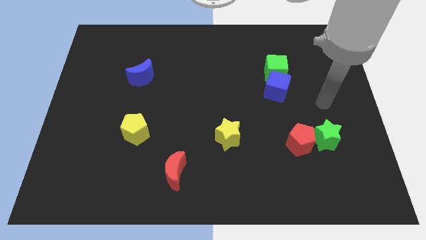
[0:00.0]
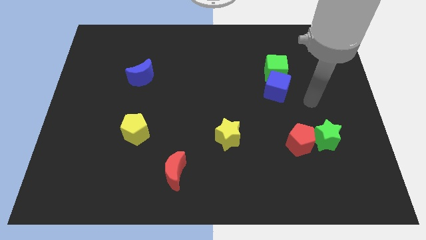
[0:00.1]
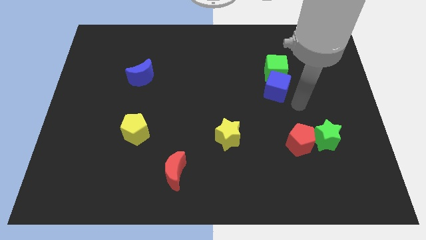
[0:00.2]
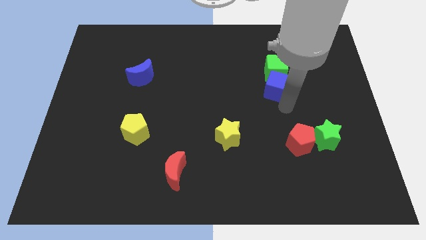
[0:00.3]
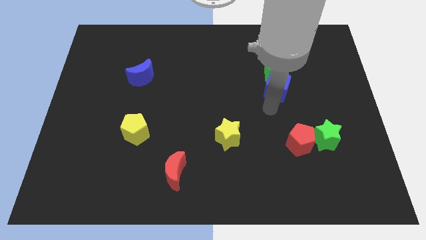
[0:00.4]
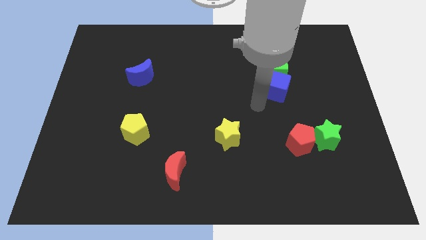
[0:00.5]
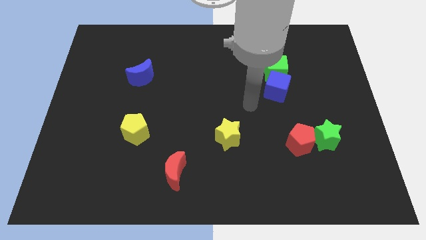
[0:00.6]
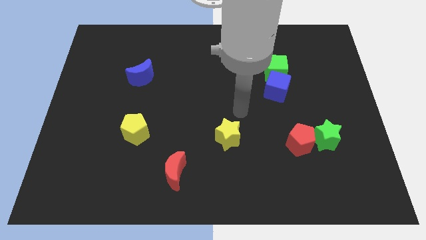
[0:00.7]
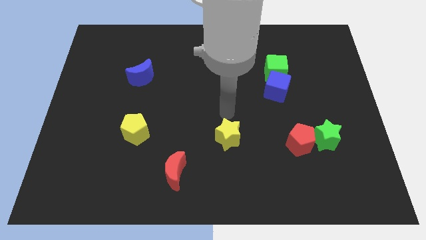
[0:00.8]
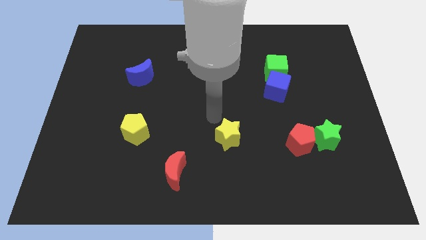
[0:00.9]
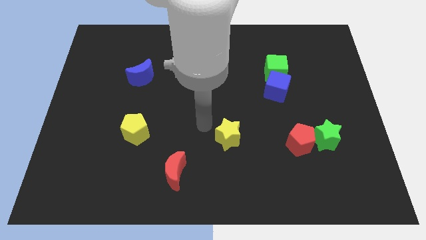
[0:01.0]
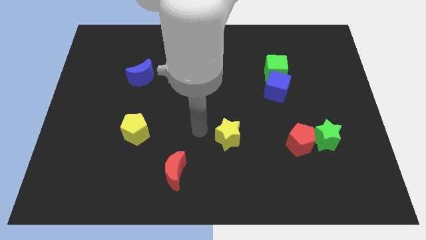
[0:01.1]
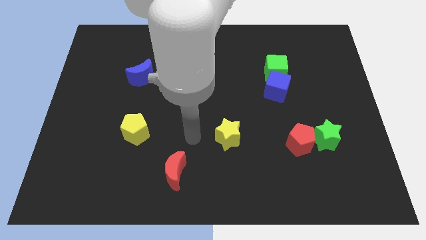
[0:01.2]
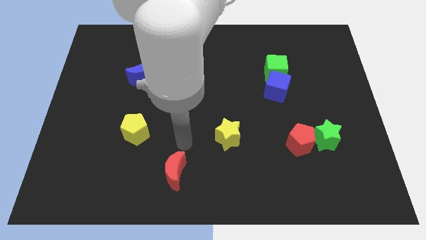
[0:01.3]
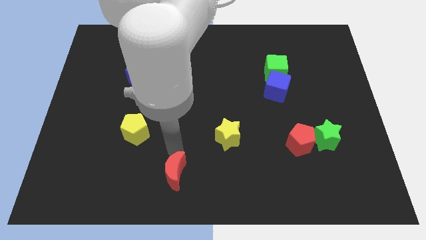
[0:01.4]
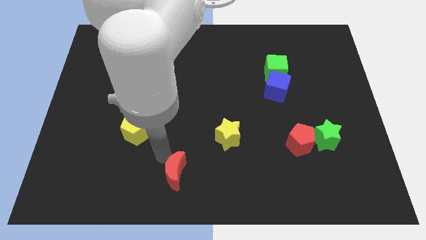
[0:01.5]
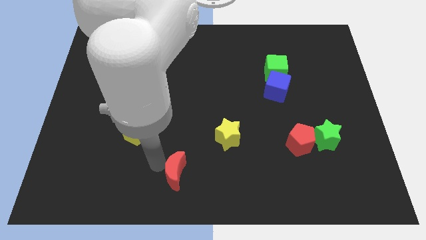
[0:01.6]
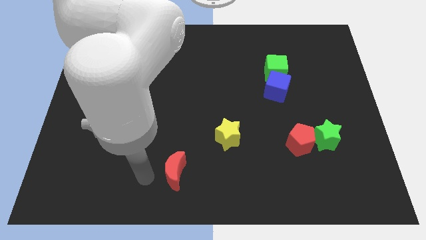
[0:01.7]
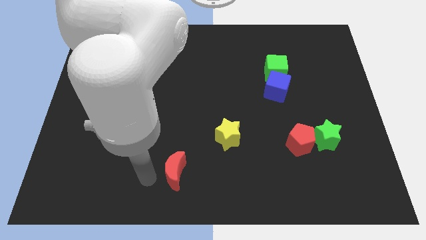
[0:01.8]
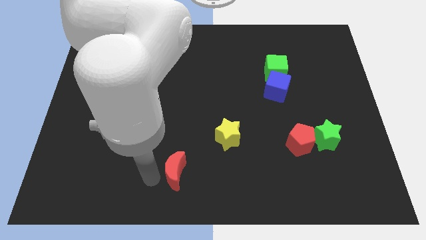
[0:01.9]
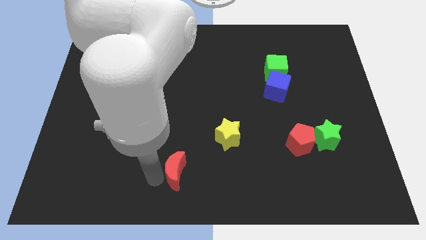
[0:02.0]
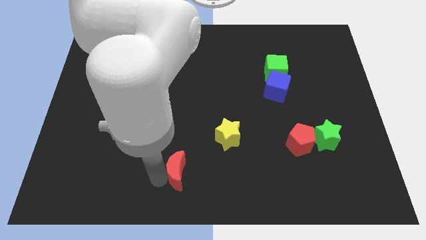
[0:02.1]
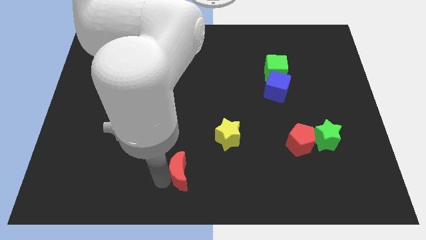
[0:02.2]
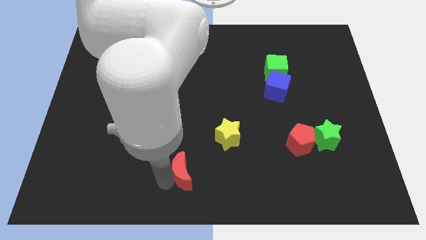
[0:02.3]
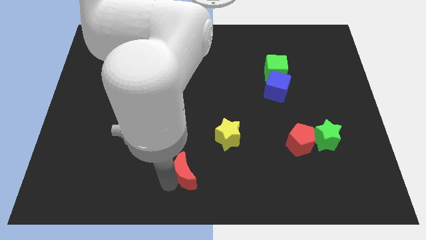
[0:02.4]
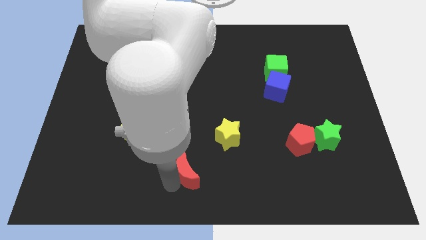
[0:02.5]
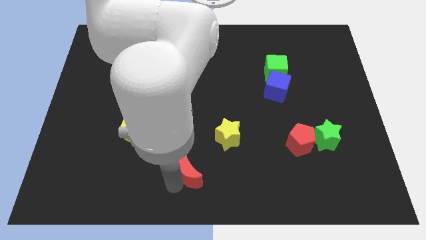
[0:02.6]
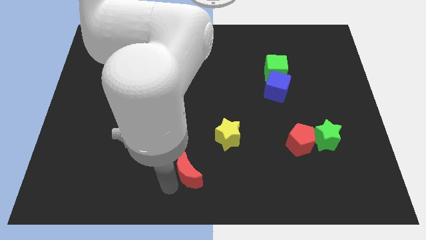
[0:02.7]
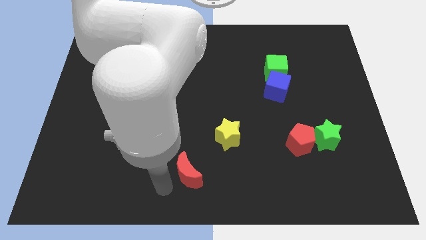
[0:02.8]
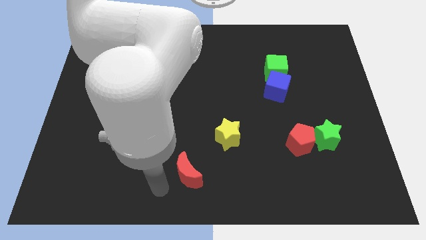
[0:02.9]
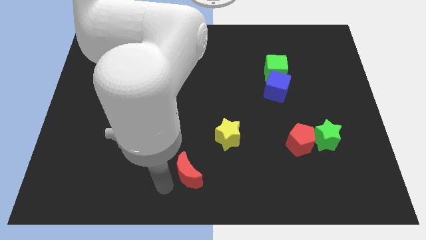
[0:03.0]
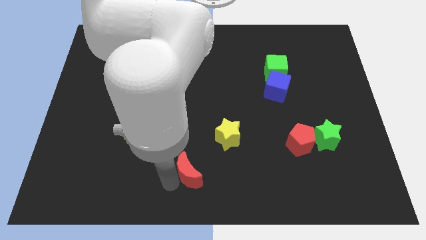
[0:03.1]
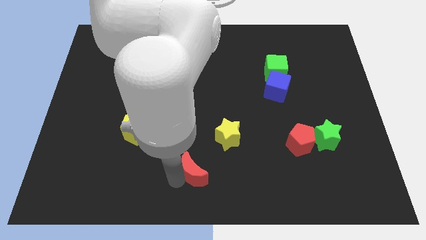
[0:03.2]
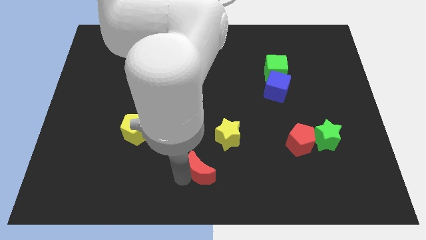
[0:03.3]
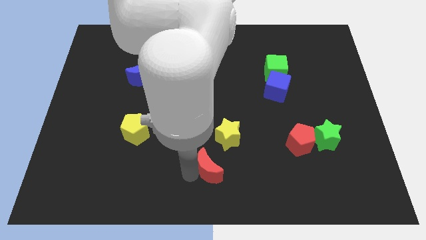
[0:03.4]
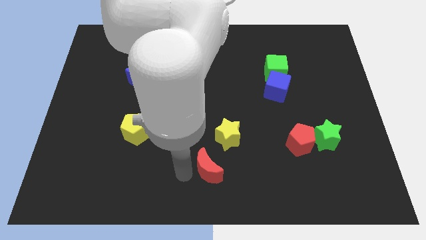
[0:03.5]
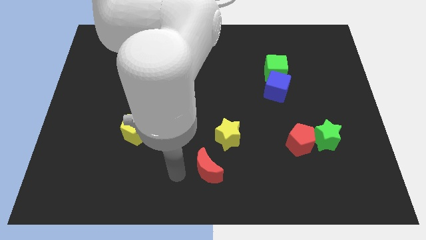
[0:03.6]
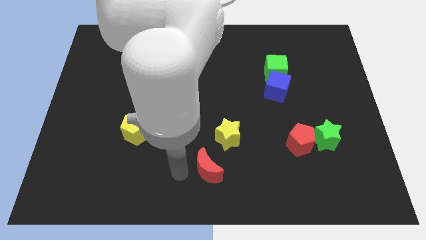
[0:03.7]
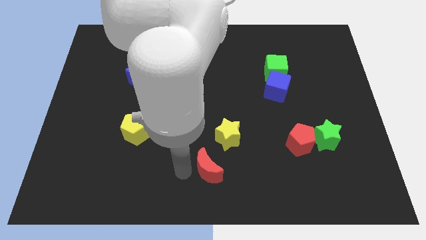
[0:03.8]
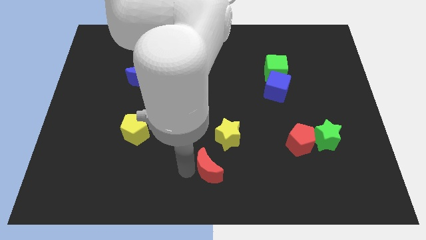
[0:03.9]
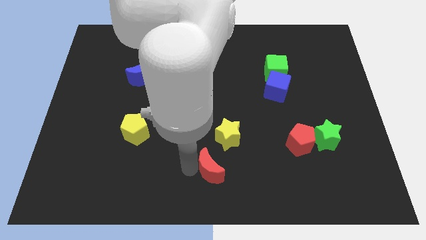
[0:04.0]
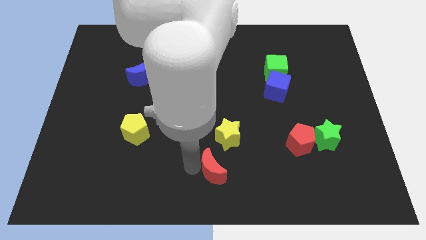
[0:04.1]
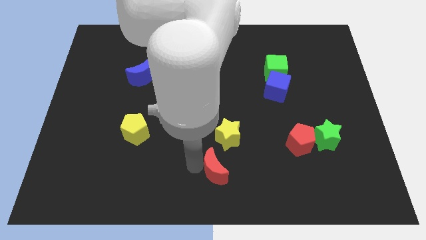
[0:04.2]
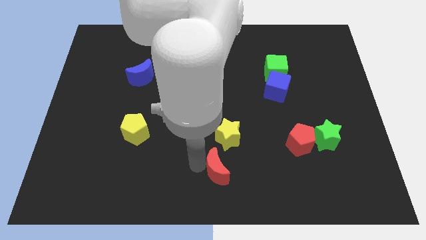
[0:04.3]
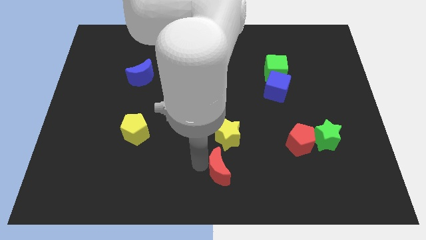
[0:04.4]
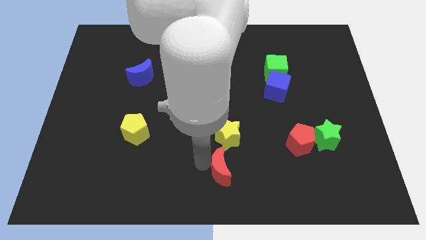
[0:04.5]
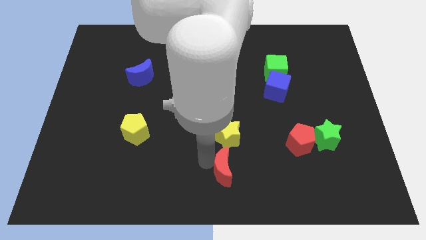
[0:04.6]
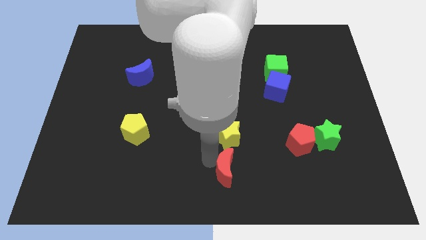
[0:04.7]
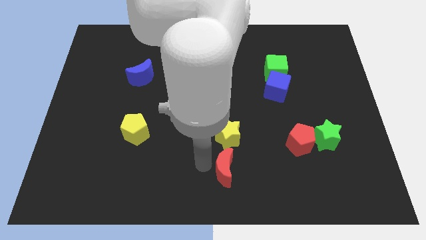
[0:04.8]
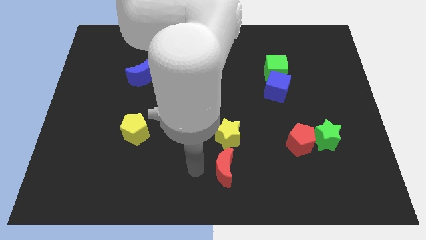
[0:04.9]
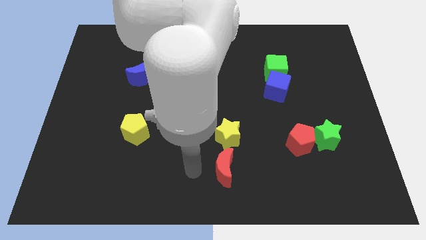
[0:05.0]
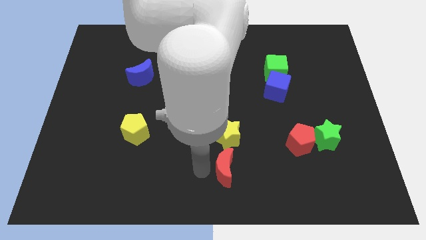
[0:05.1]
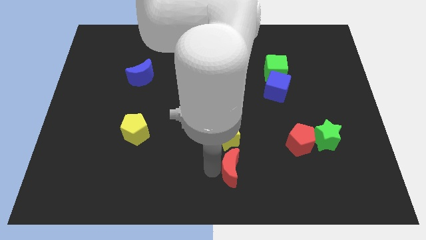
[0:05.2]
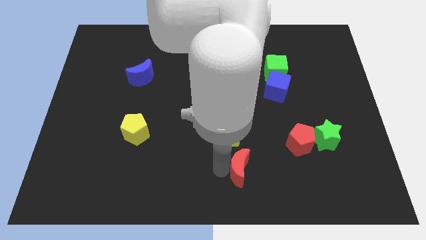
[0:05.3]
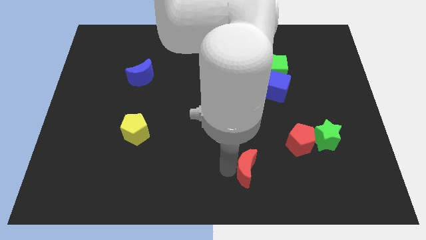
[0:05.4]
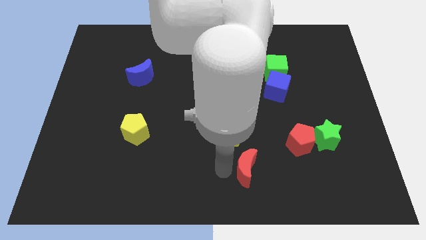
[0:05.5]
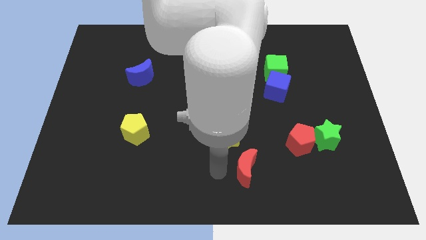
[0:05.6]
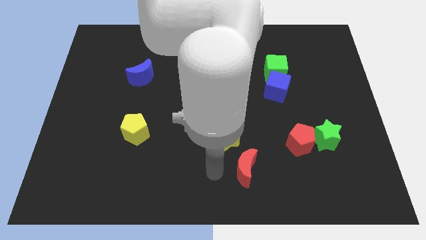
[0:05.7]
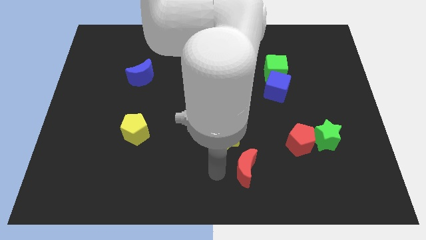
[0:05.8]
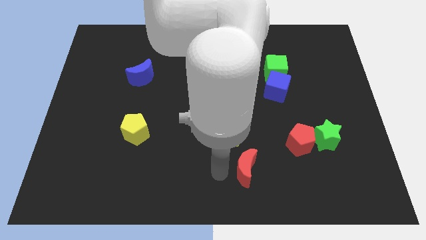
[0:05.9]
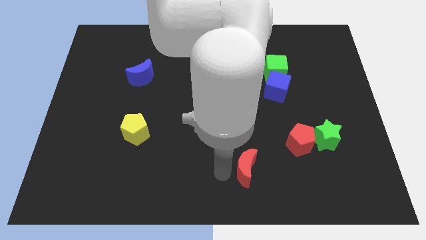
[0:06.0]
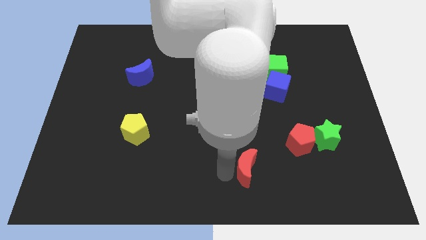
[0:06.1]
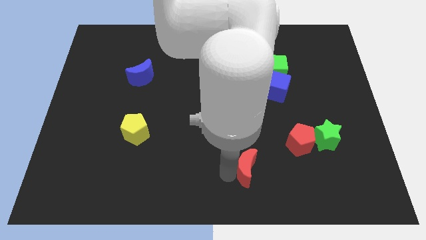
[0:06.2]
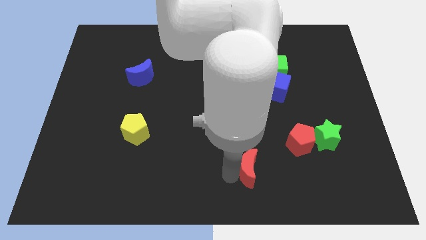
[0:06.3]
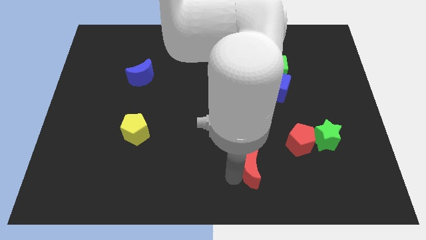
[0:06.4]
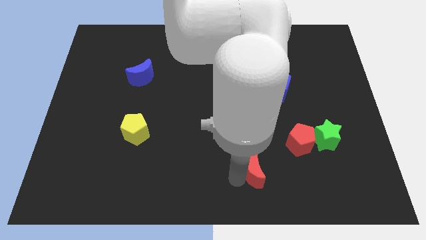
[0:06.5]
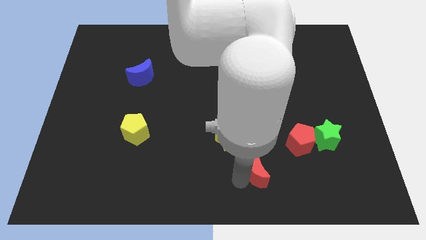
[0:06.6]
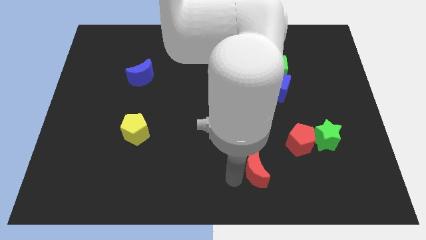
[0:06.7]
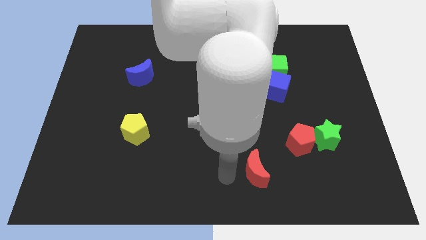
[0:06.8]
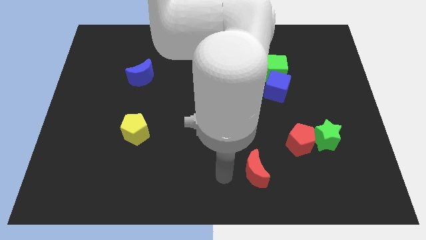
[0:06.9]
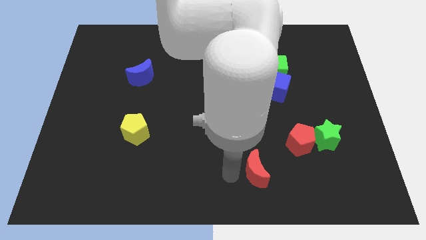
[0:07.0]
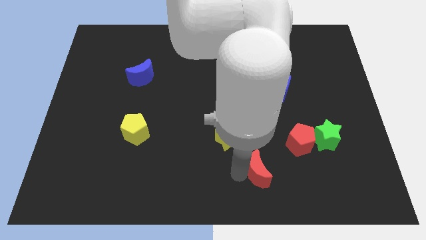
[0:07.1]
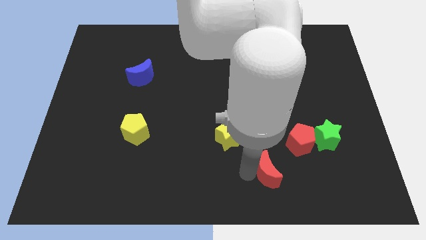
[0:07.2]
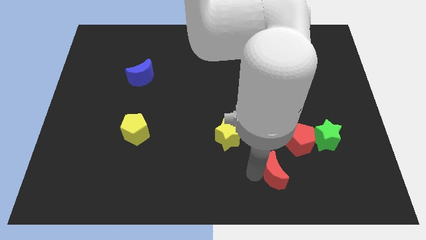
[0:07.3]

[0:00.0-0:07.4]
slide the red moon right

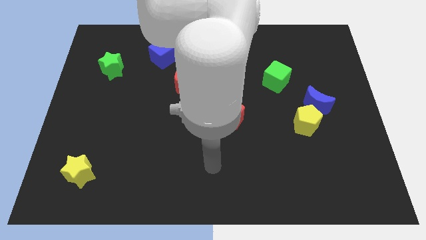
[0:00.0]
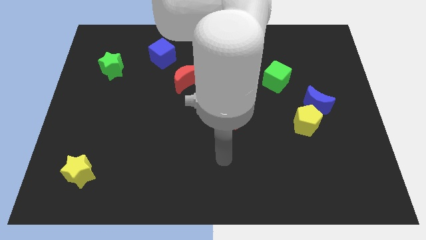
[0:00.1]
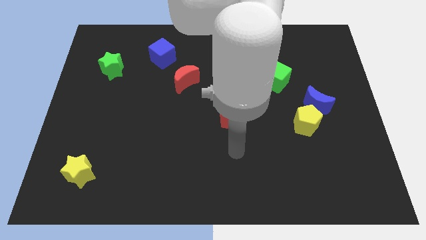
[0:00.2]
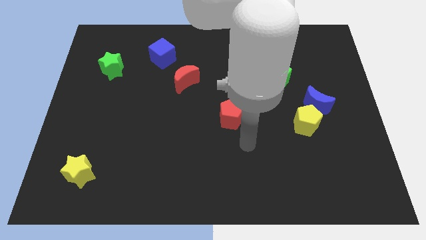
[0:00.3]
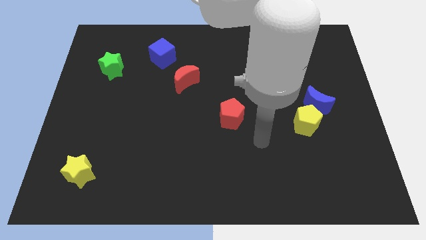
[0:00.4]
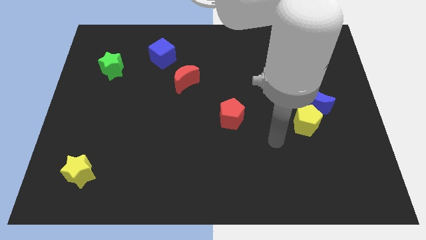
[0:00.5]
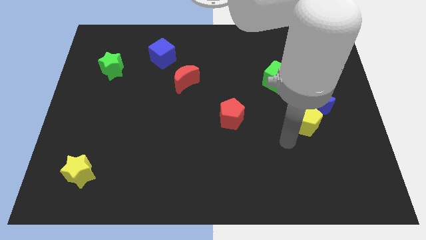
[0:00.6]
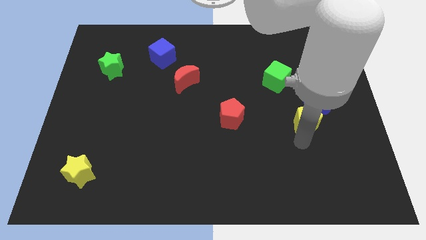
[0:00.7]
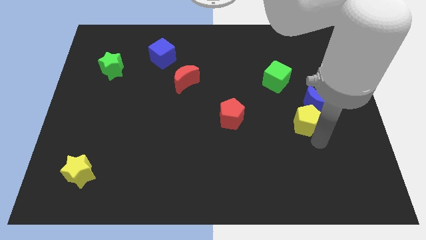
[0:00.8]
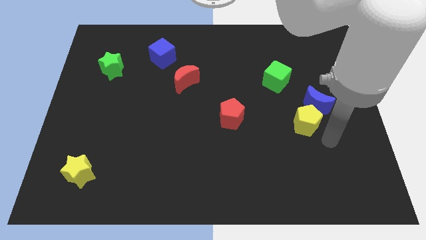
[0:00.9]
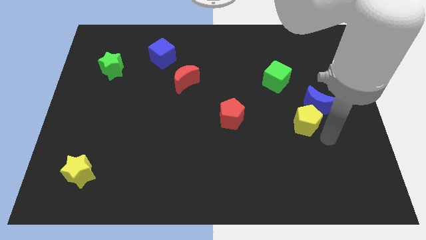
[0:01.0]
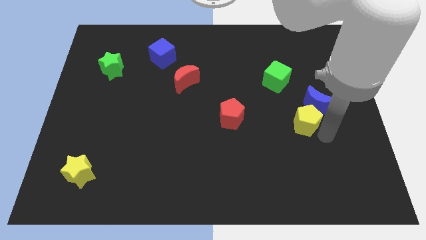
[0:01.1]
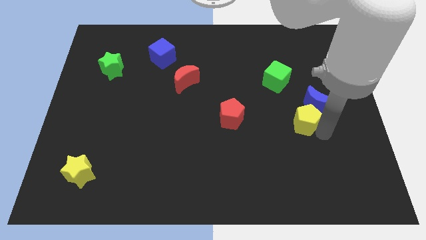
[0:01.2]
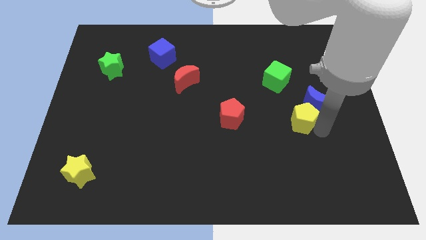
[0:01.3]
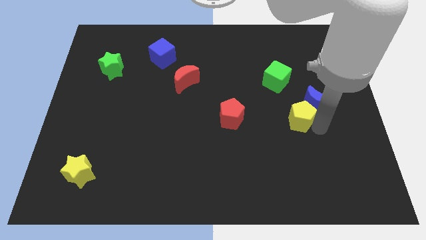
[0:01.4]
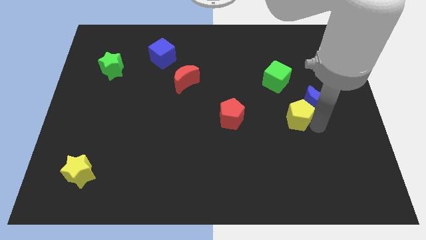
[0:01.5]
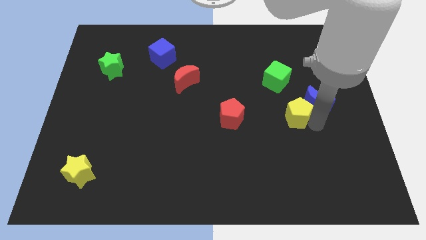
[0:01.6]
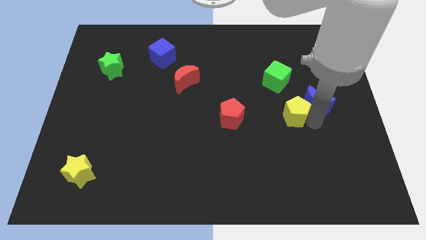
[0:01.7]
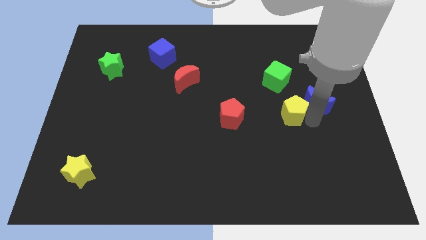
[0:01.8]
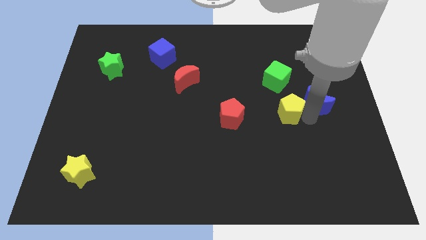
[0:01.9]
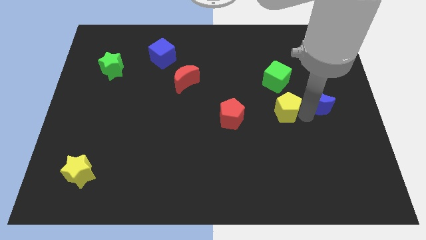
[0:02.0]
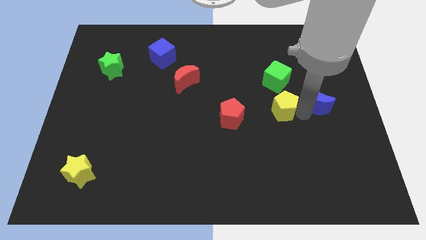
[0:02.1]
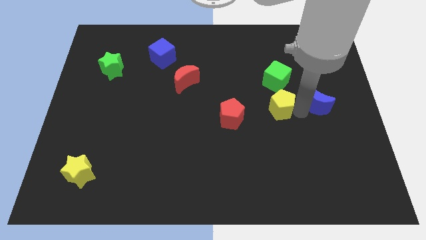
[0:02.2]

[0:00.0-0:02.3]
slightly slide the yellow pentagon upwards and then left
